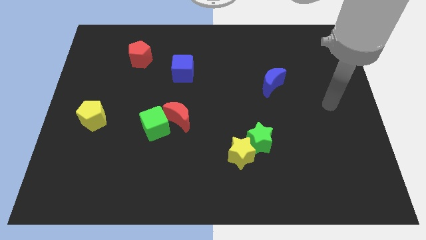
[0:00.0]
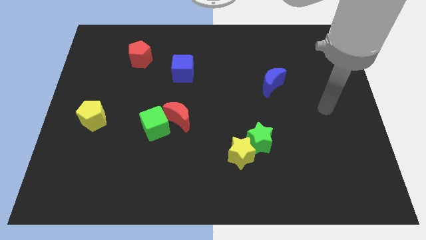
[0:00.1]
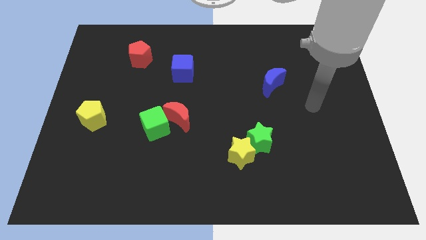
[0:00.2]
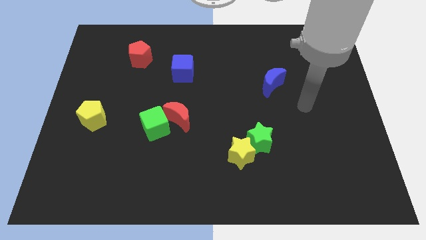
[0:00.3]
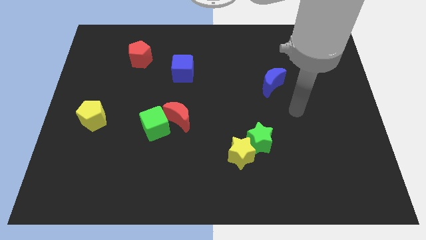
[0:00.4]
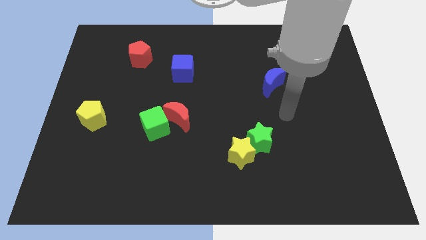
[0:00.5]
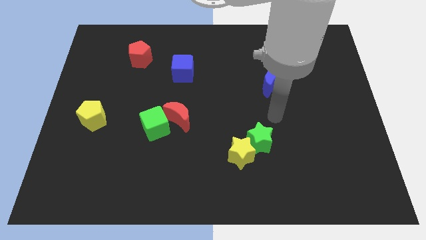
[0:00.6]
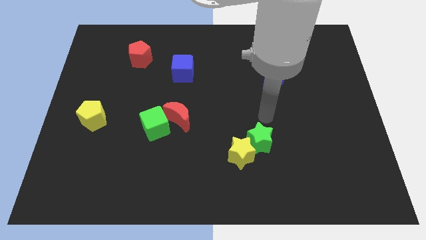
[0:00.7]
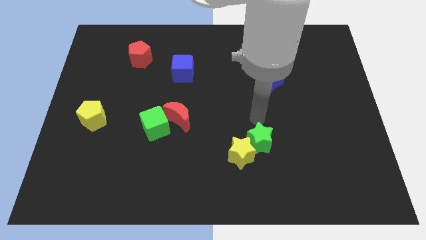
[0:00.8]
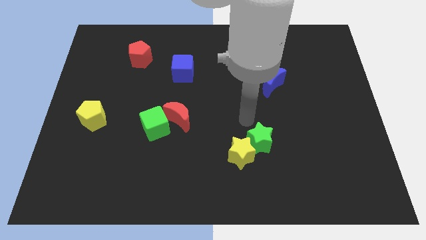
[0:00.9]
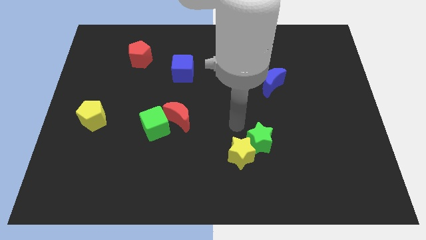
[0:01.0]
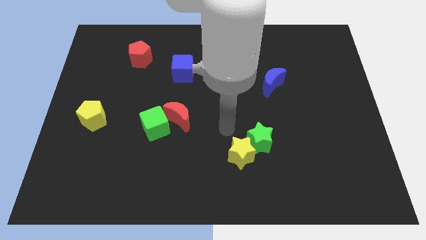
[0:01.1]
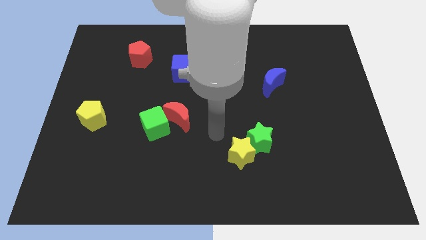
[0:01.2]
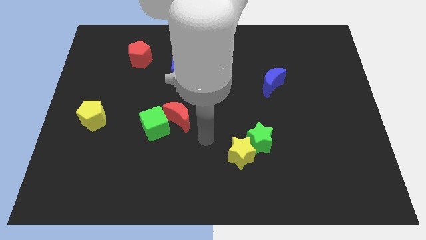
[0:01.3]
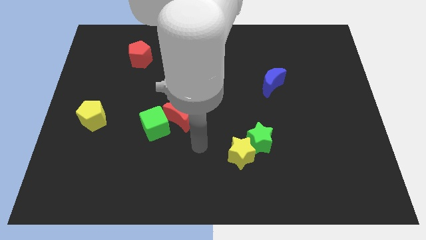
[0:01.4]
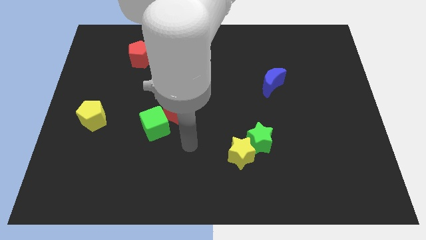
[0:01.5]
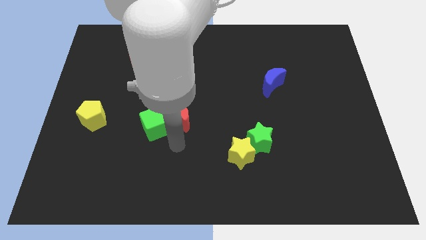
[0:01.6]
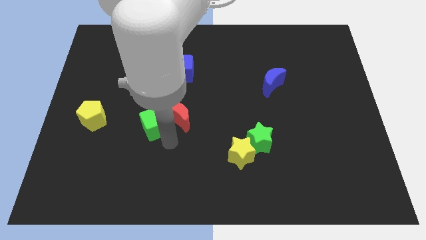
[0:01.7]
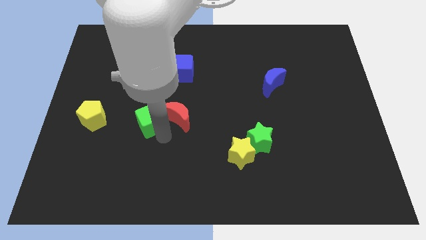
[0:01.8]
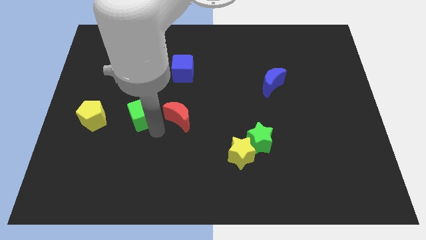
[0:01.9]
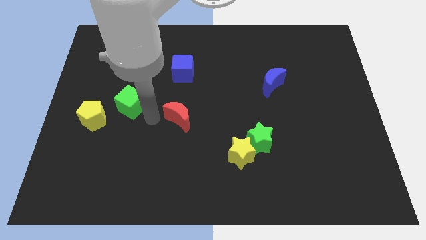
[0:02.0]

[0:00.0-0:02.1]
separate the red moon from the green cube

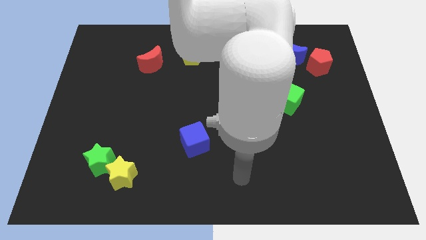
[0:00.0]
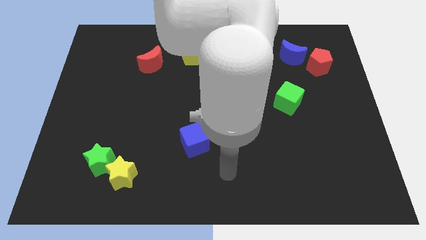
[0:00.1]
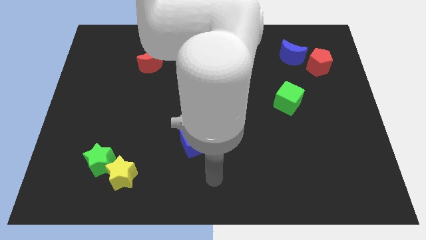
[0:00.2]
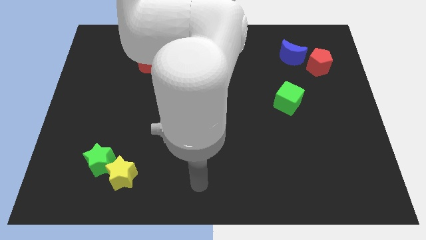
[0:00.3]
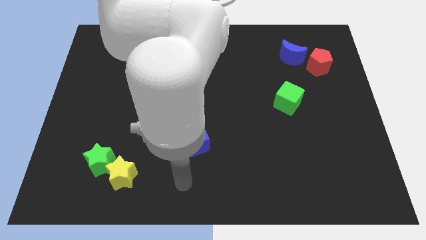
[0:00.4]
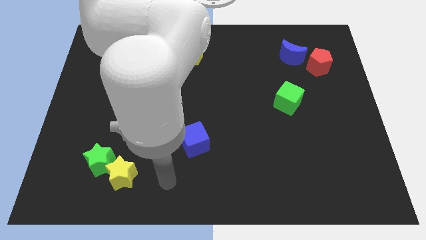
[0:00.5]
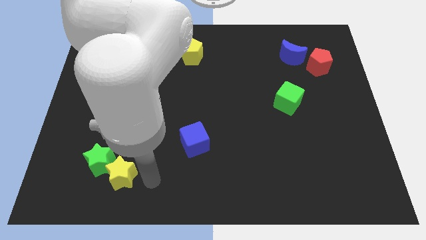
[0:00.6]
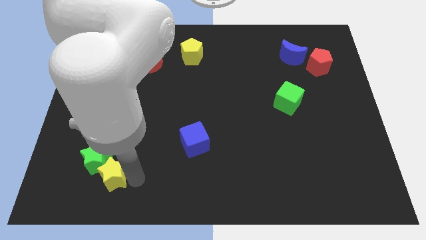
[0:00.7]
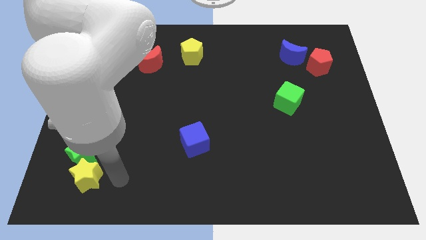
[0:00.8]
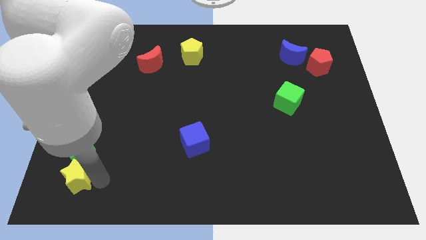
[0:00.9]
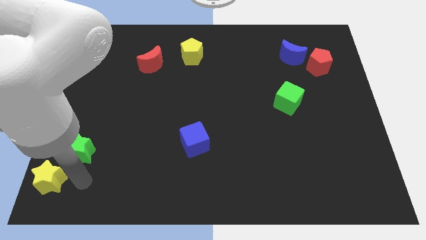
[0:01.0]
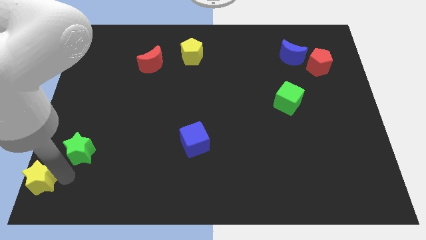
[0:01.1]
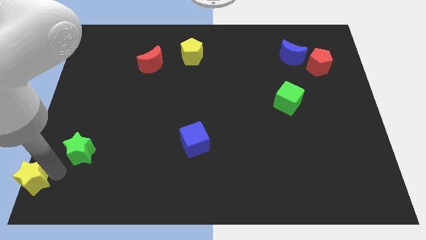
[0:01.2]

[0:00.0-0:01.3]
move the green star away from the yellow star

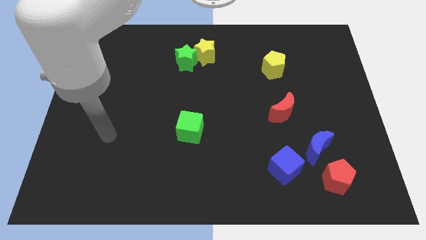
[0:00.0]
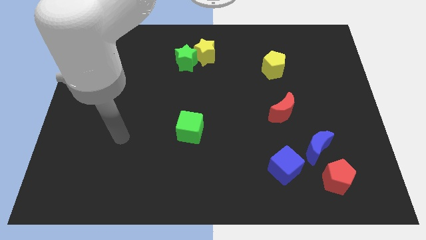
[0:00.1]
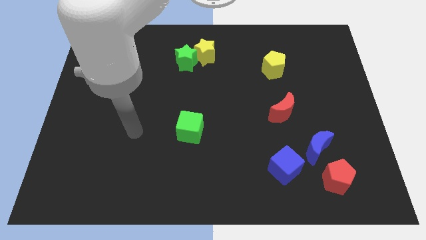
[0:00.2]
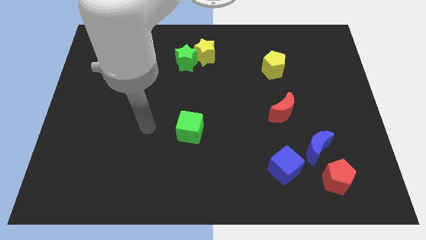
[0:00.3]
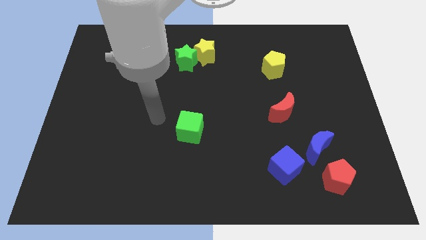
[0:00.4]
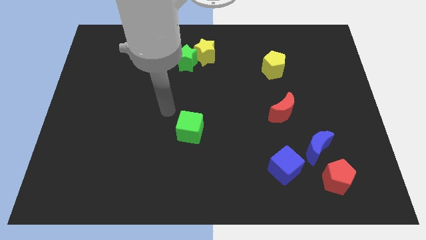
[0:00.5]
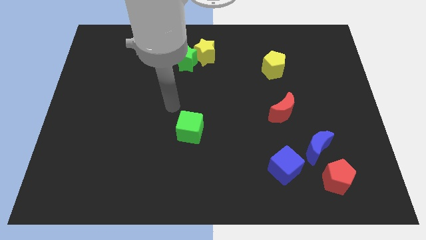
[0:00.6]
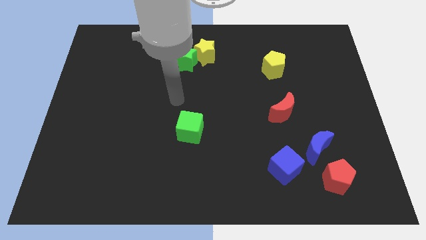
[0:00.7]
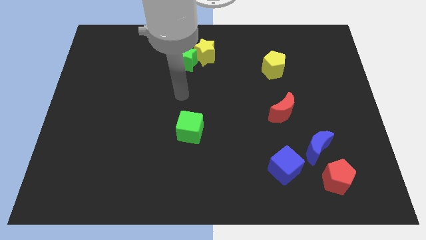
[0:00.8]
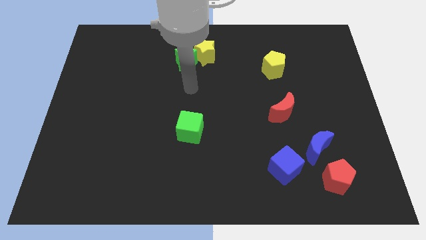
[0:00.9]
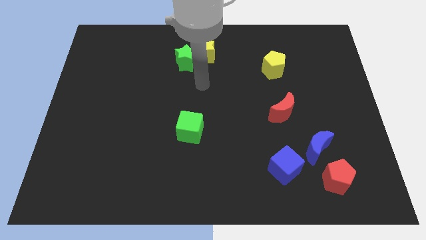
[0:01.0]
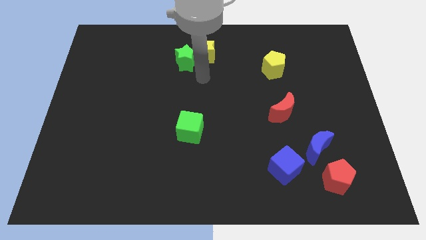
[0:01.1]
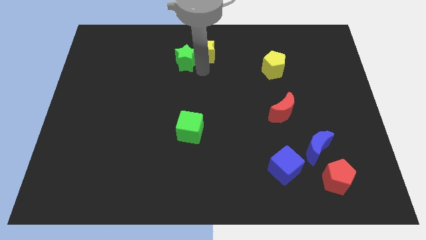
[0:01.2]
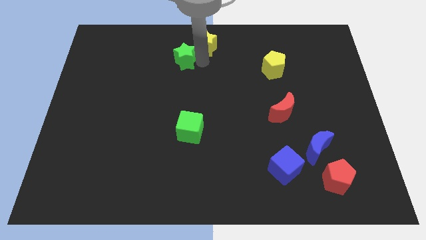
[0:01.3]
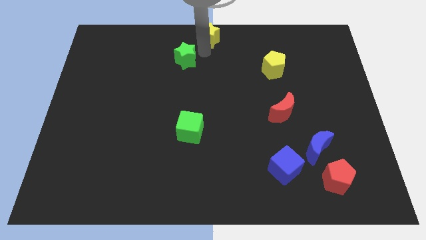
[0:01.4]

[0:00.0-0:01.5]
pull the green star apart from the yellow star

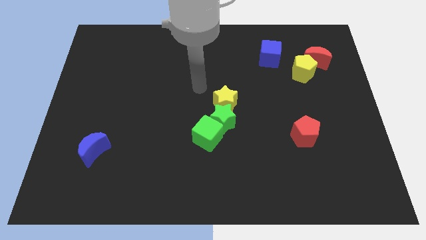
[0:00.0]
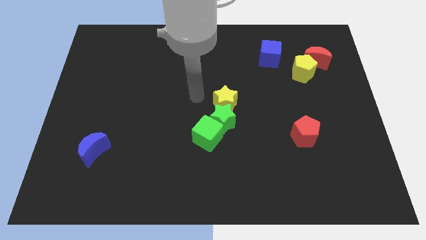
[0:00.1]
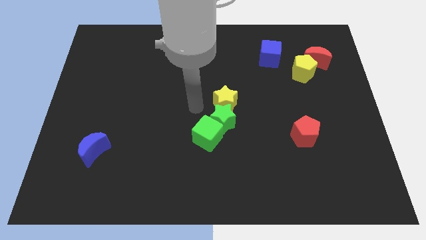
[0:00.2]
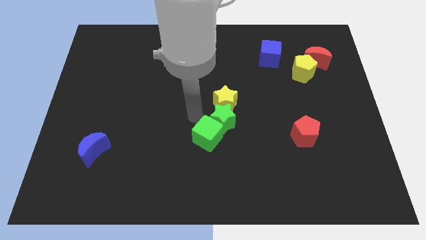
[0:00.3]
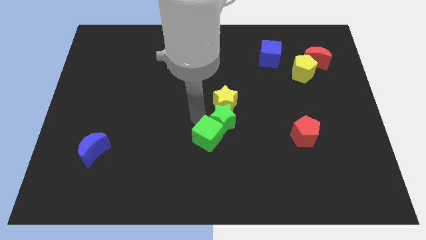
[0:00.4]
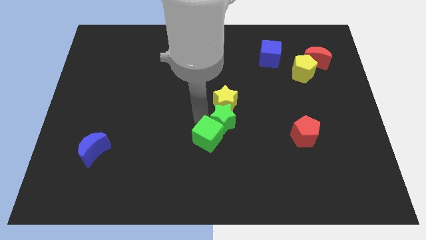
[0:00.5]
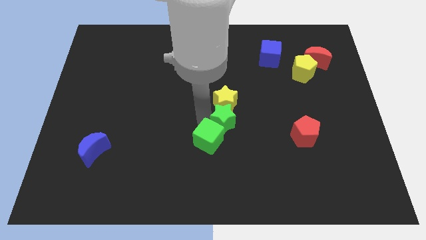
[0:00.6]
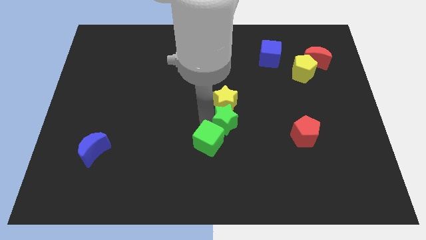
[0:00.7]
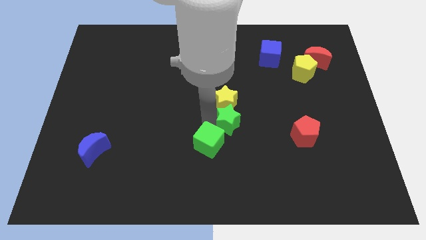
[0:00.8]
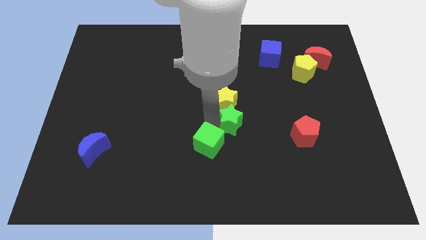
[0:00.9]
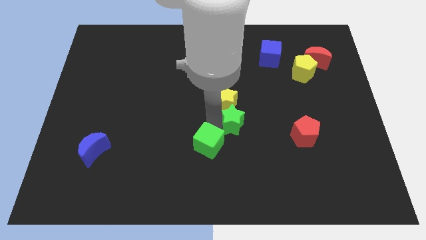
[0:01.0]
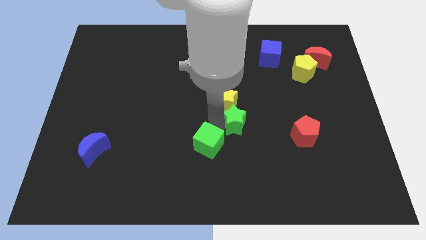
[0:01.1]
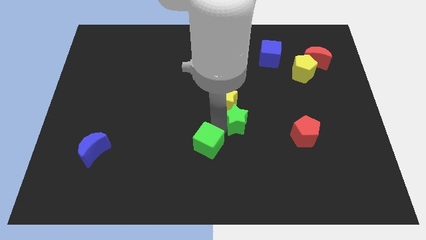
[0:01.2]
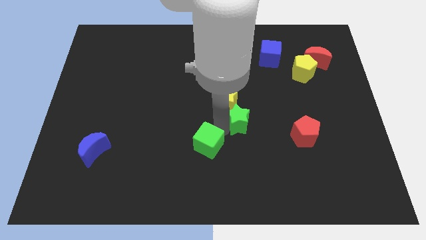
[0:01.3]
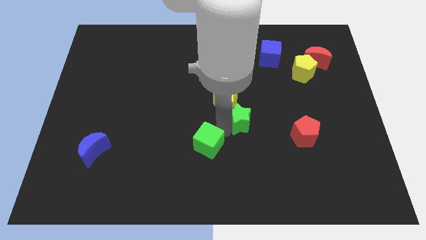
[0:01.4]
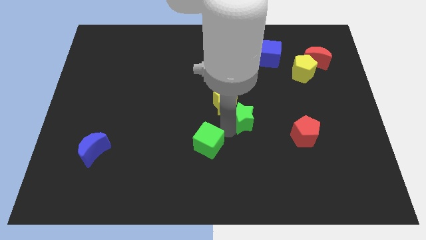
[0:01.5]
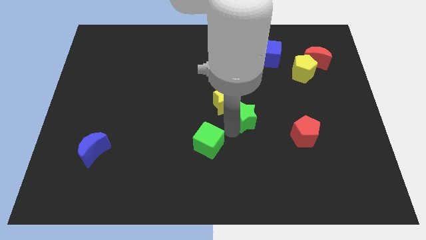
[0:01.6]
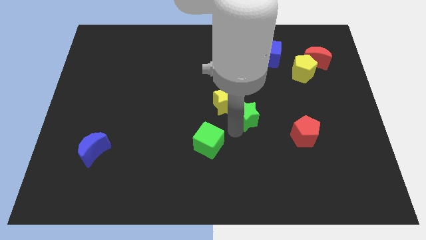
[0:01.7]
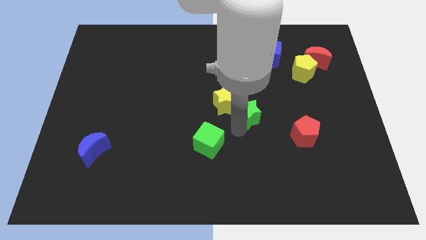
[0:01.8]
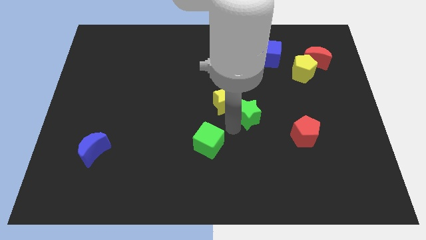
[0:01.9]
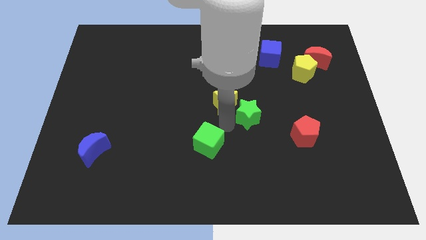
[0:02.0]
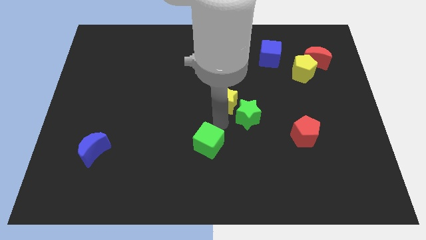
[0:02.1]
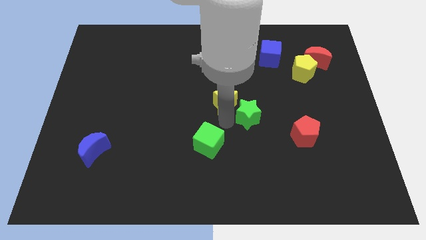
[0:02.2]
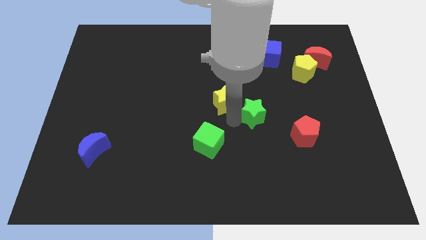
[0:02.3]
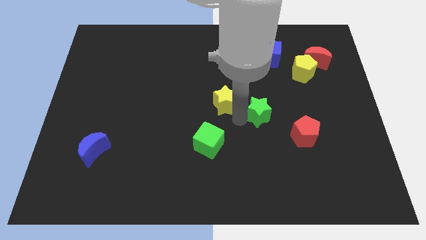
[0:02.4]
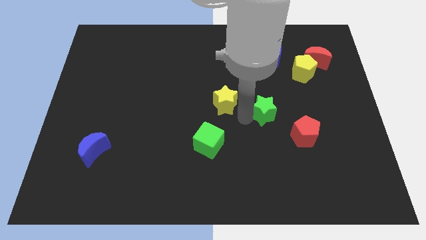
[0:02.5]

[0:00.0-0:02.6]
pull the green star apart from the yellow star and green cube

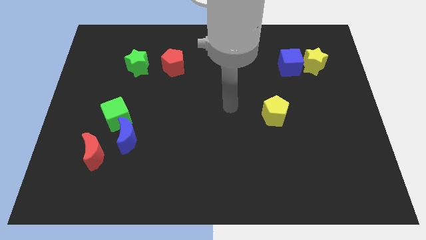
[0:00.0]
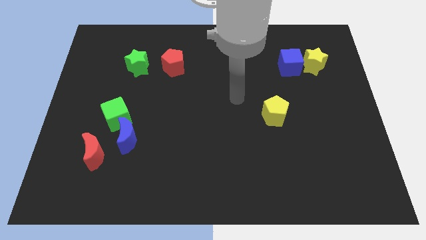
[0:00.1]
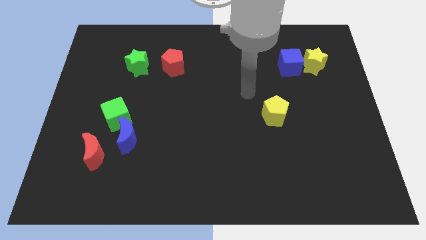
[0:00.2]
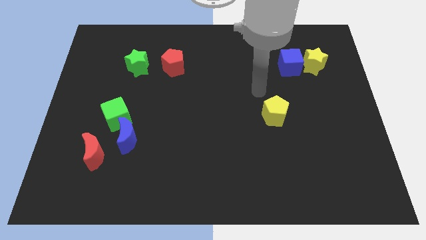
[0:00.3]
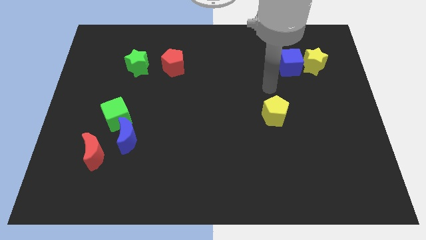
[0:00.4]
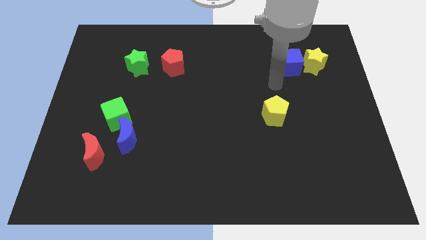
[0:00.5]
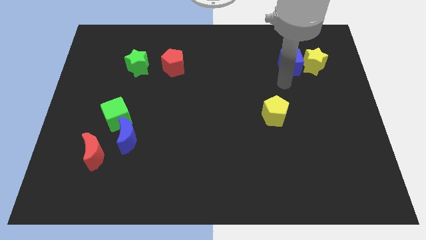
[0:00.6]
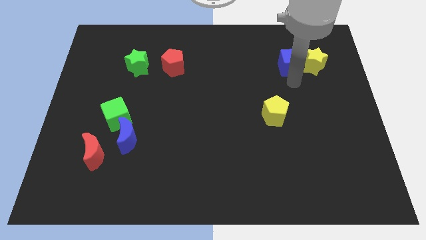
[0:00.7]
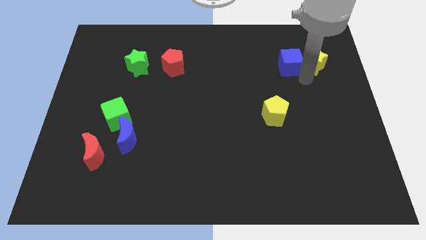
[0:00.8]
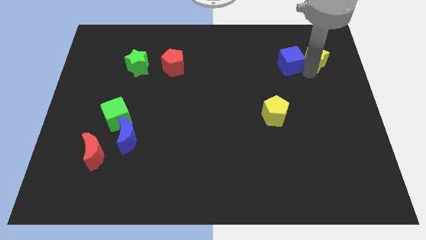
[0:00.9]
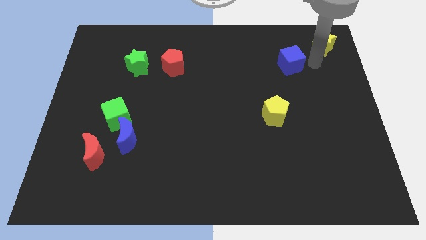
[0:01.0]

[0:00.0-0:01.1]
separate the blue cube from the yellow star

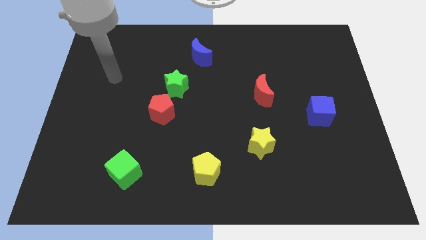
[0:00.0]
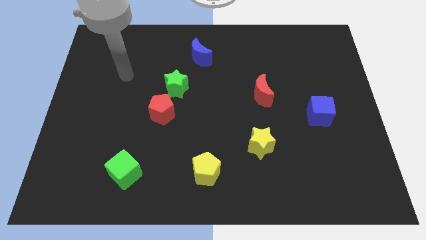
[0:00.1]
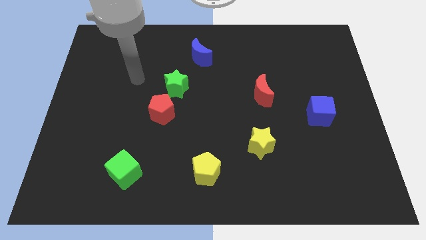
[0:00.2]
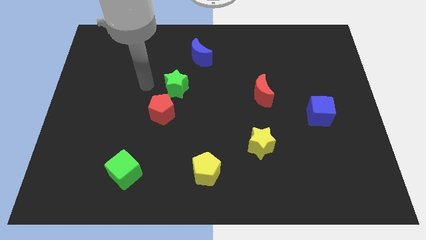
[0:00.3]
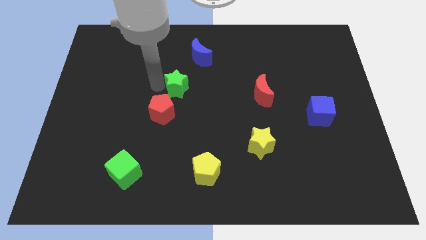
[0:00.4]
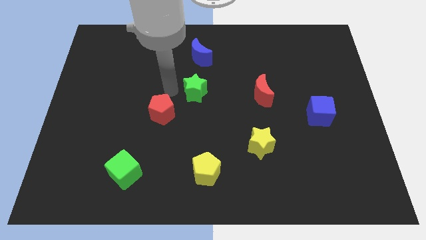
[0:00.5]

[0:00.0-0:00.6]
pull the red pentagon apart from the green star

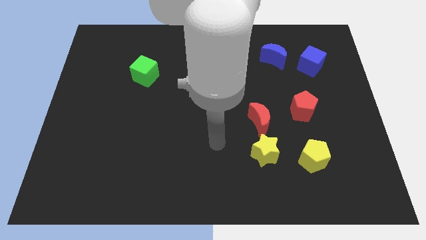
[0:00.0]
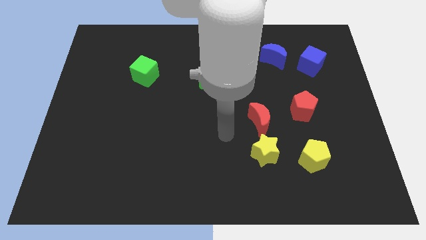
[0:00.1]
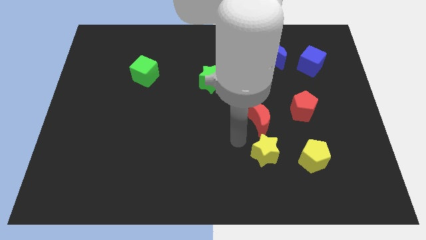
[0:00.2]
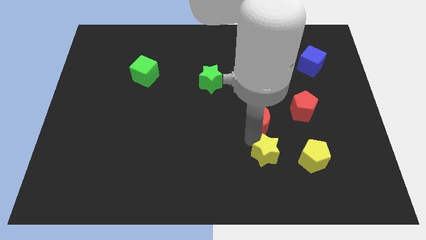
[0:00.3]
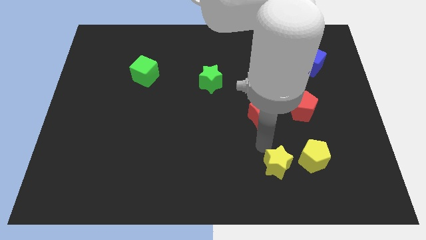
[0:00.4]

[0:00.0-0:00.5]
separate the red moon from the yellow star
